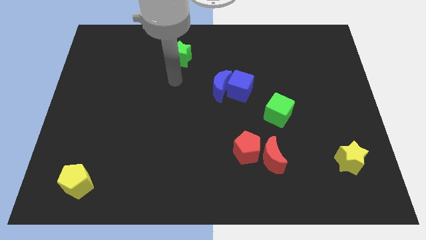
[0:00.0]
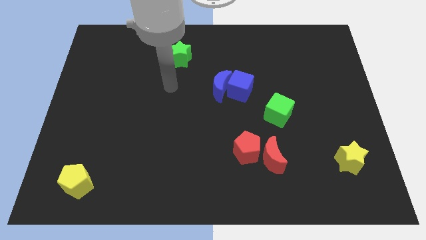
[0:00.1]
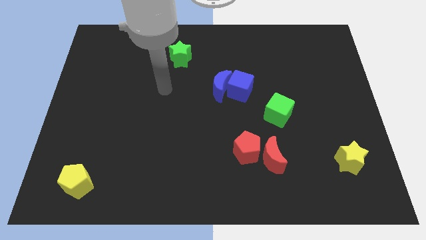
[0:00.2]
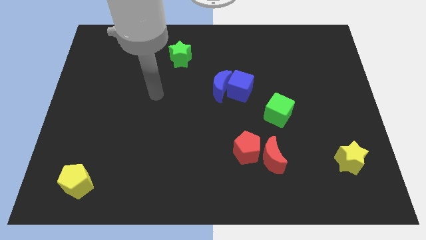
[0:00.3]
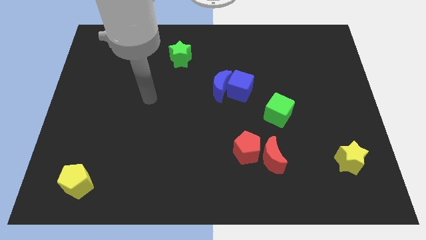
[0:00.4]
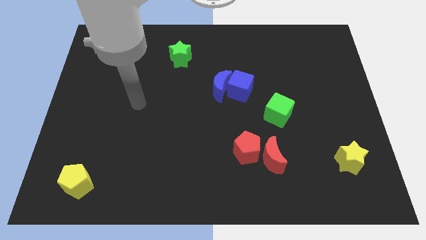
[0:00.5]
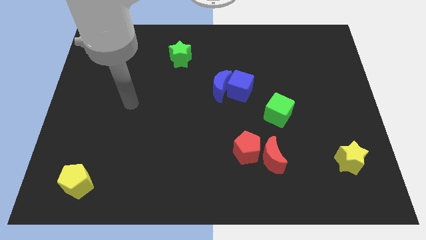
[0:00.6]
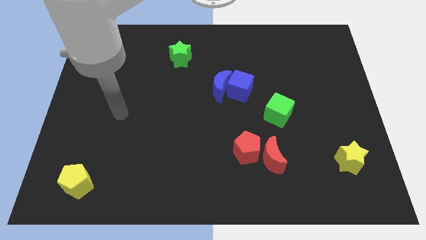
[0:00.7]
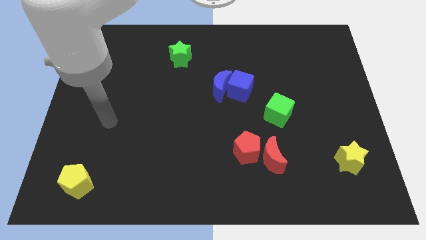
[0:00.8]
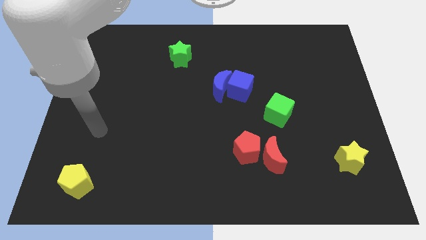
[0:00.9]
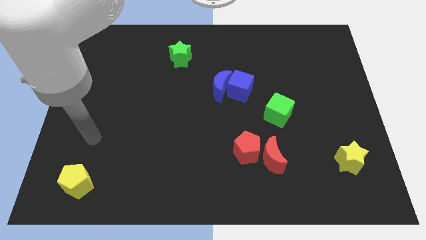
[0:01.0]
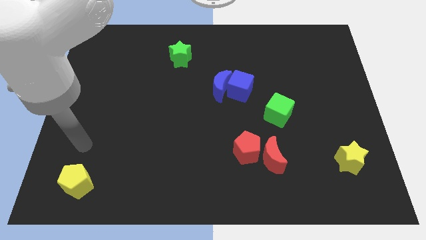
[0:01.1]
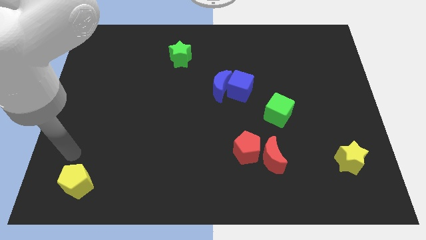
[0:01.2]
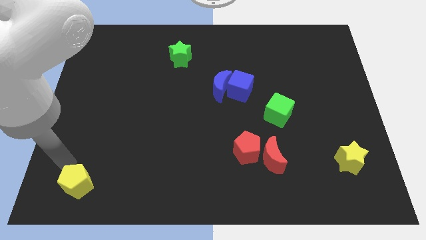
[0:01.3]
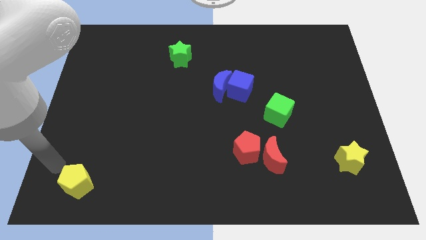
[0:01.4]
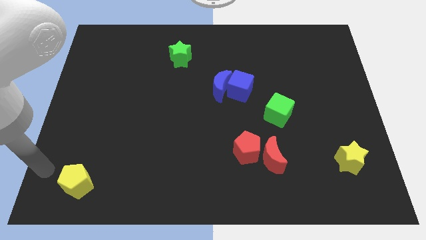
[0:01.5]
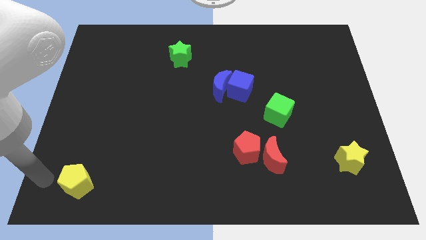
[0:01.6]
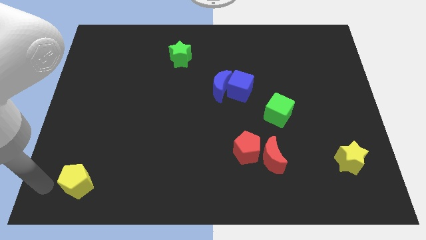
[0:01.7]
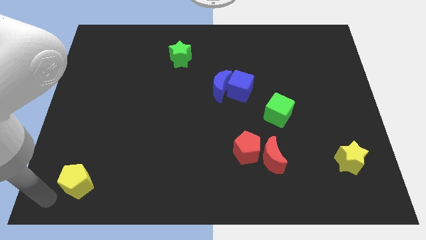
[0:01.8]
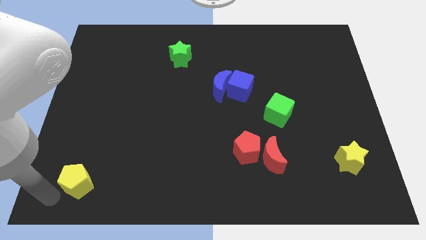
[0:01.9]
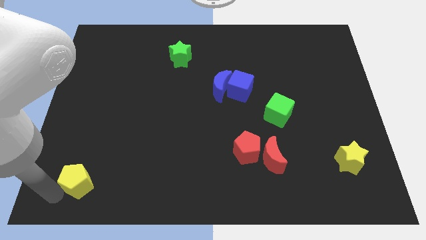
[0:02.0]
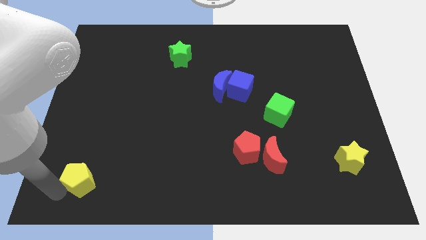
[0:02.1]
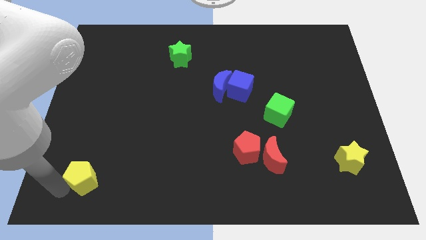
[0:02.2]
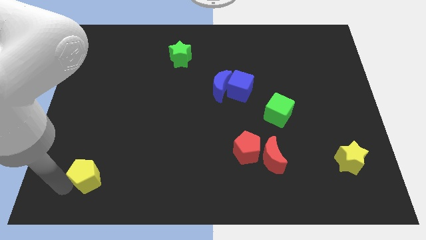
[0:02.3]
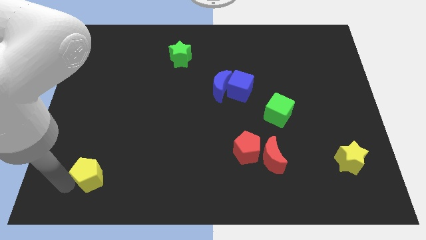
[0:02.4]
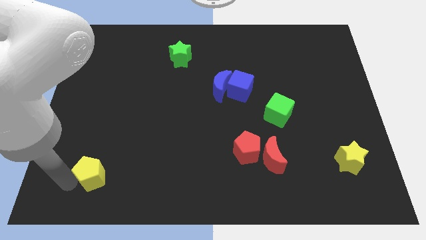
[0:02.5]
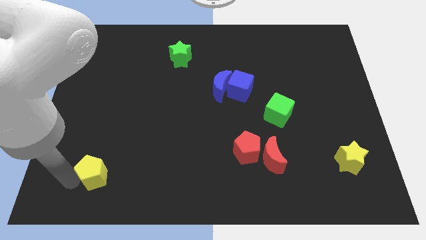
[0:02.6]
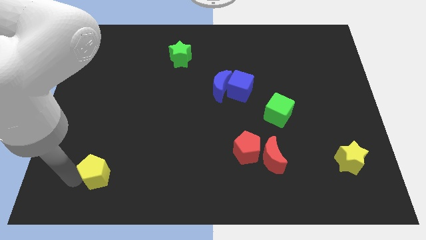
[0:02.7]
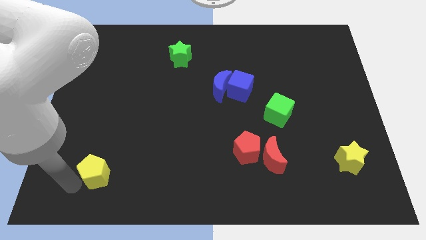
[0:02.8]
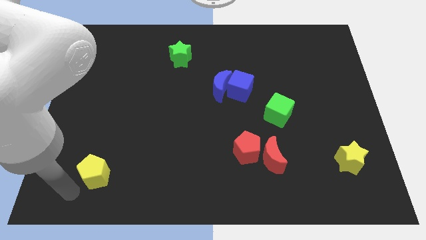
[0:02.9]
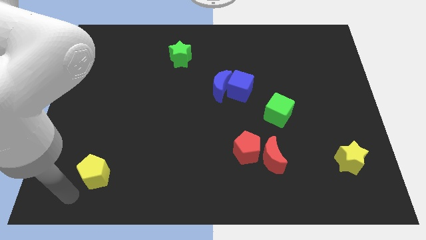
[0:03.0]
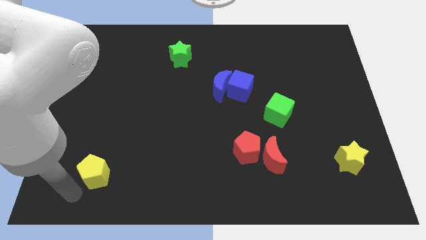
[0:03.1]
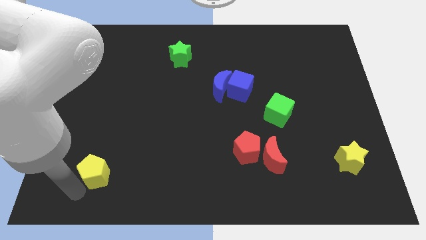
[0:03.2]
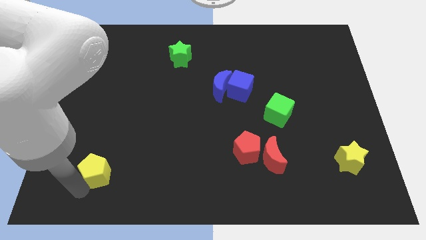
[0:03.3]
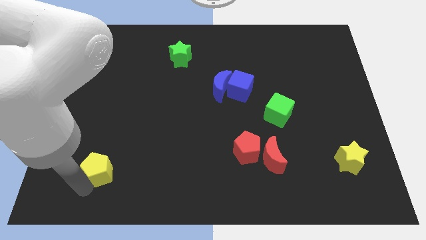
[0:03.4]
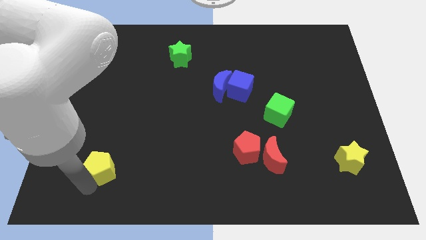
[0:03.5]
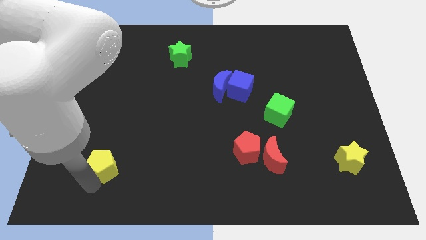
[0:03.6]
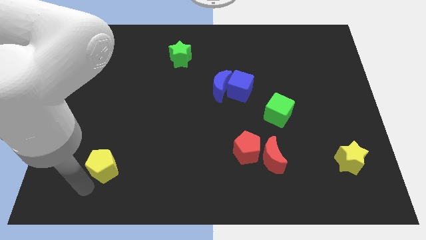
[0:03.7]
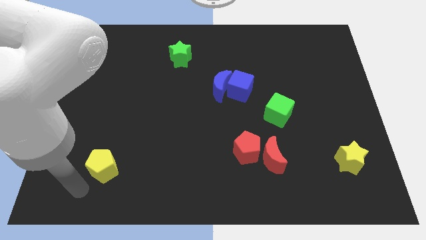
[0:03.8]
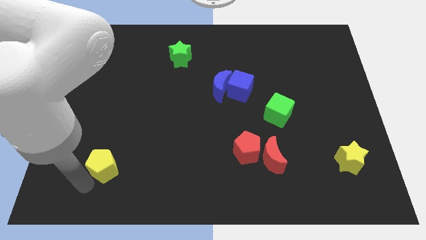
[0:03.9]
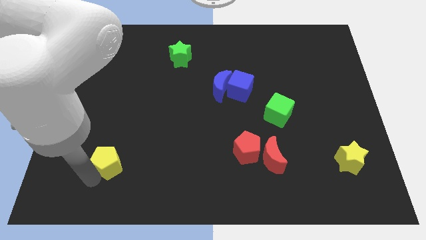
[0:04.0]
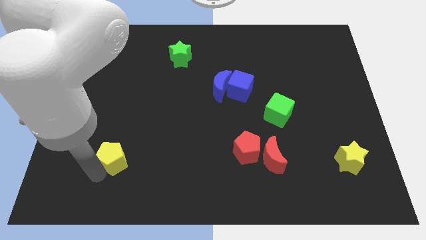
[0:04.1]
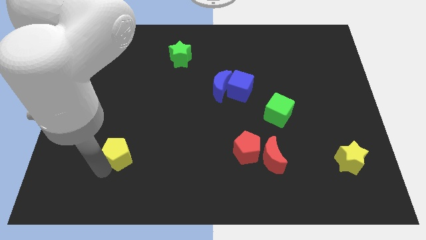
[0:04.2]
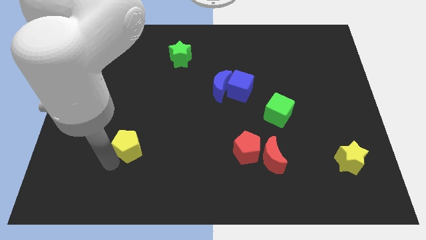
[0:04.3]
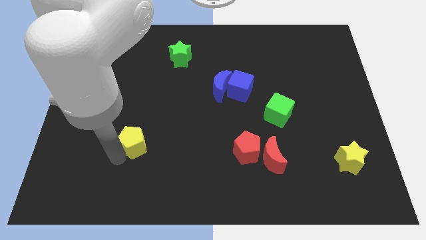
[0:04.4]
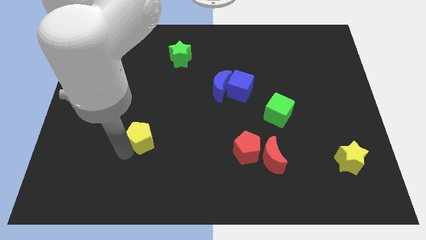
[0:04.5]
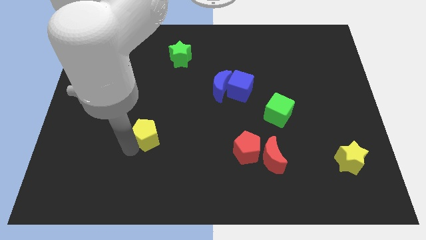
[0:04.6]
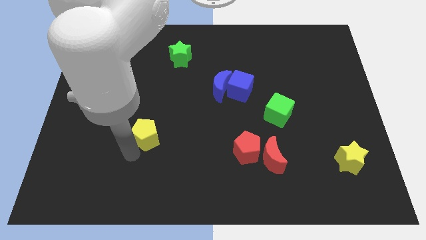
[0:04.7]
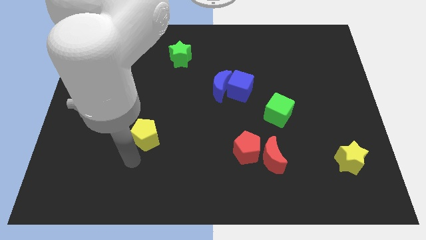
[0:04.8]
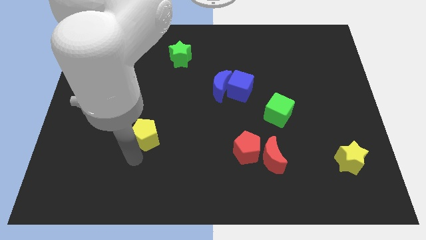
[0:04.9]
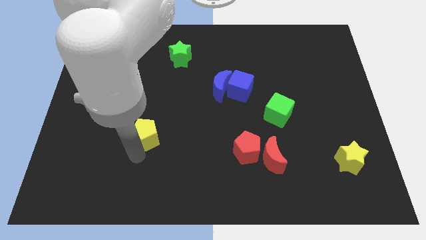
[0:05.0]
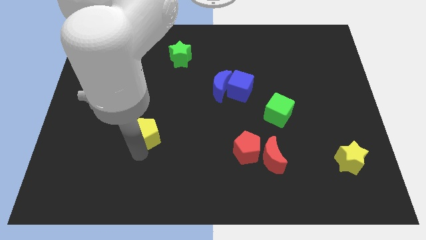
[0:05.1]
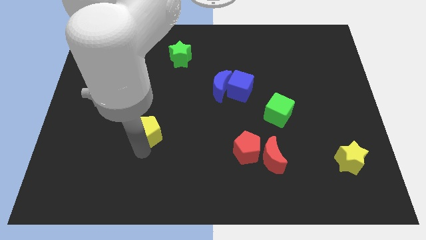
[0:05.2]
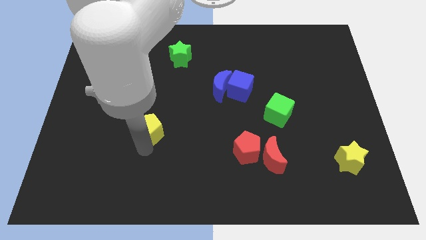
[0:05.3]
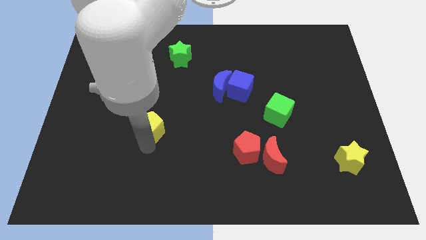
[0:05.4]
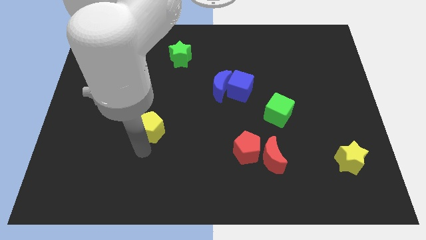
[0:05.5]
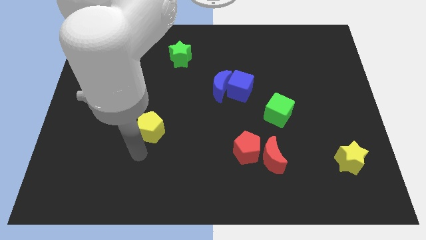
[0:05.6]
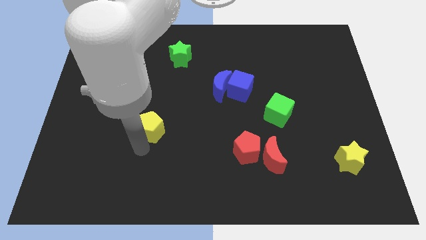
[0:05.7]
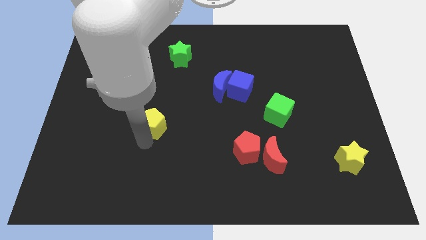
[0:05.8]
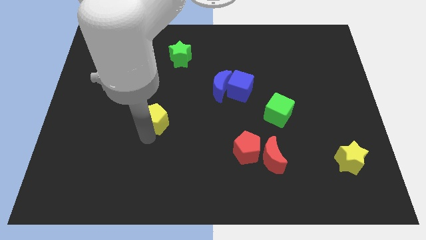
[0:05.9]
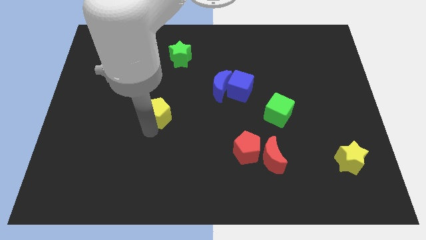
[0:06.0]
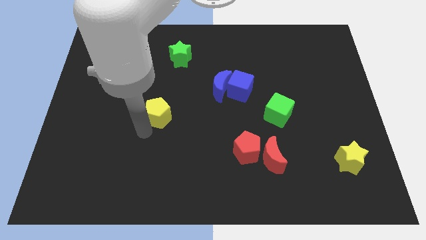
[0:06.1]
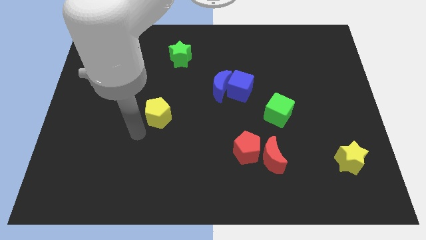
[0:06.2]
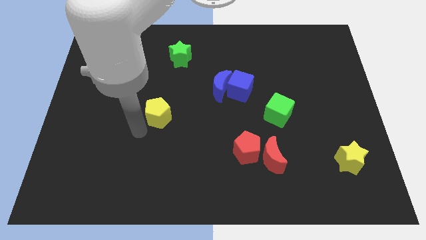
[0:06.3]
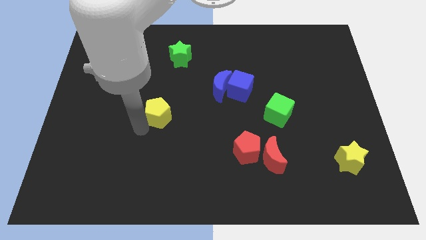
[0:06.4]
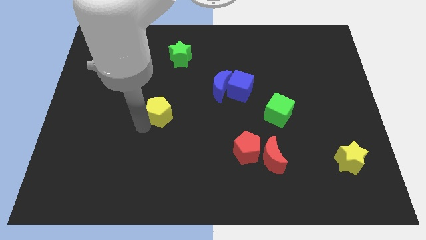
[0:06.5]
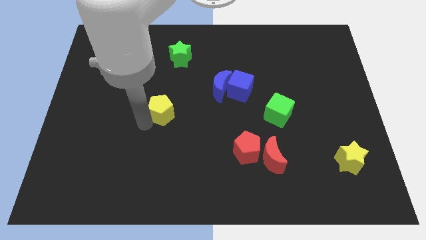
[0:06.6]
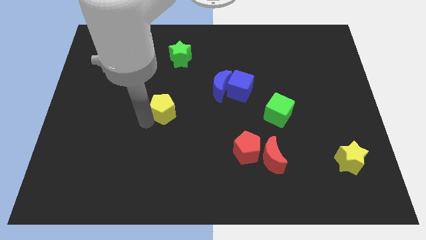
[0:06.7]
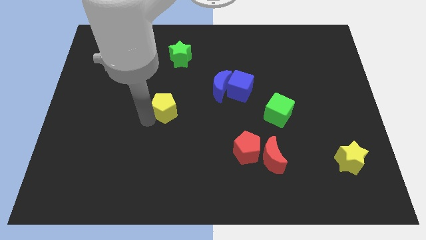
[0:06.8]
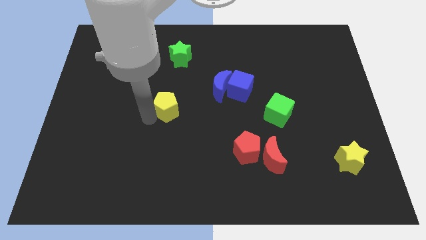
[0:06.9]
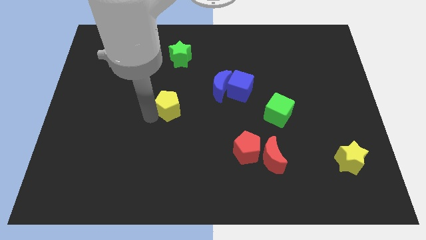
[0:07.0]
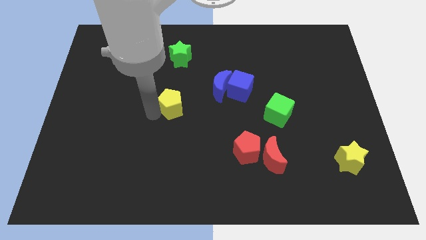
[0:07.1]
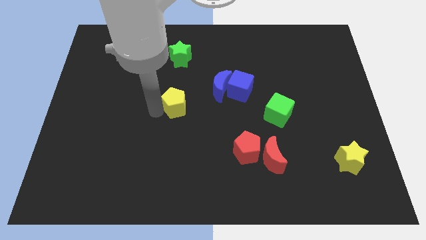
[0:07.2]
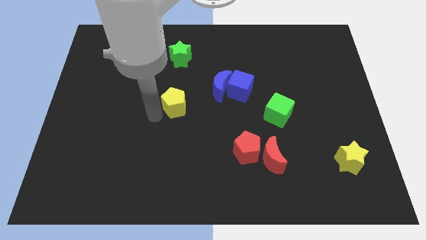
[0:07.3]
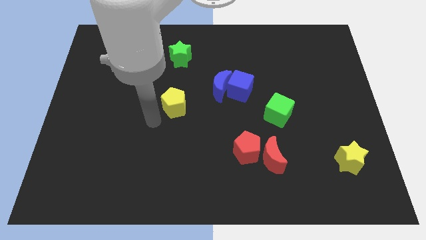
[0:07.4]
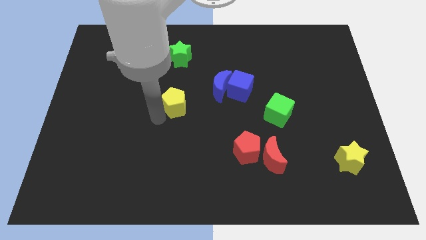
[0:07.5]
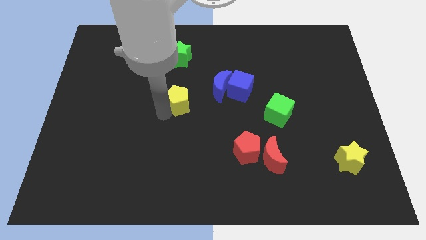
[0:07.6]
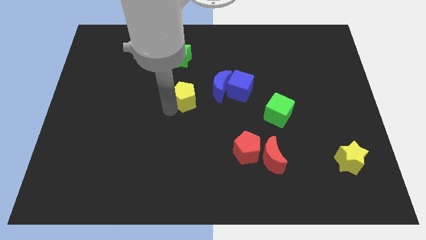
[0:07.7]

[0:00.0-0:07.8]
move the yellow pentagon just left of the blue cube
